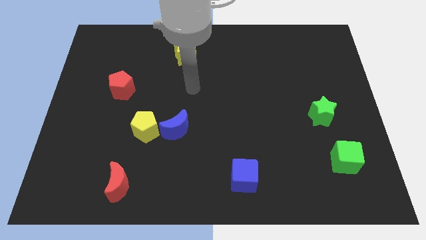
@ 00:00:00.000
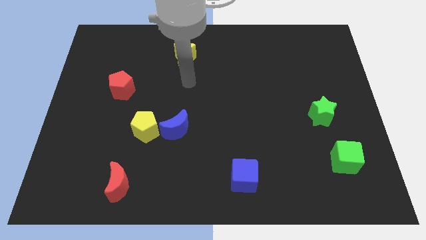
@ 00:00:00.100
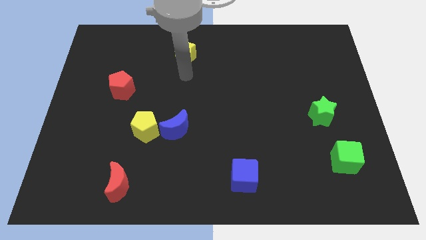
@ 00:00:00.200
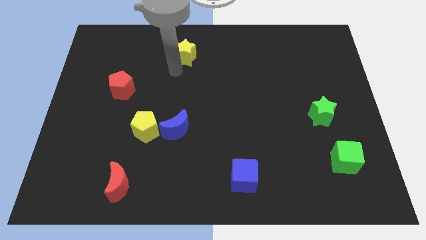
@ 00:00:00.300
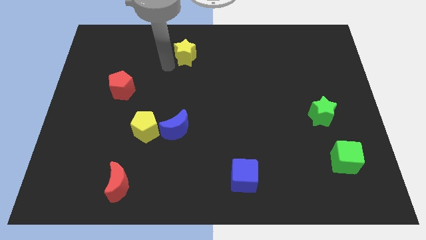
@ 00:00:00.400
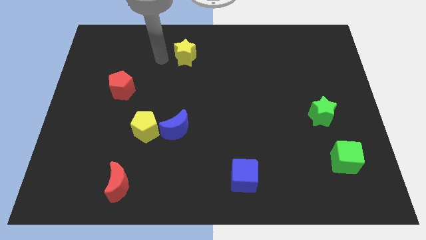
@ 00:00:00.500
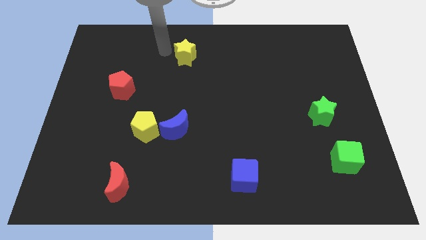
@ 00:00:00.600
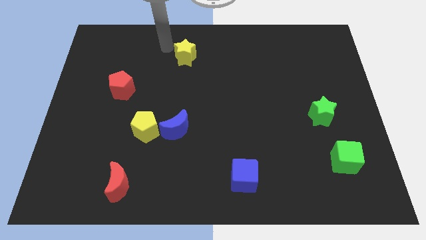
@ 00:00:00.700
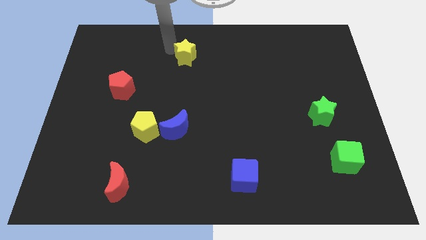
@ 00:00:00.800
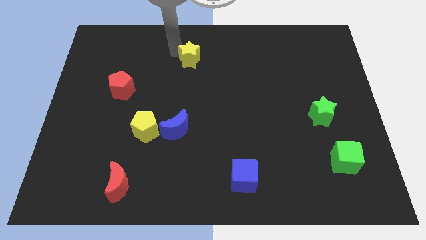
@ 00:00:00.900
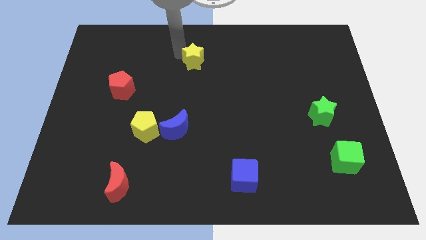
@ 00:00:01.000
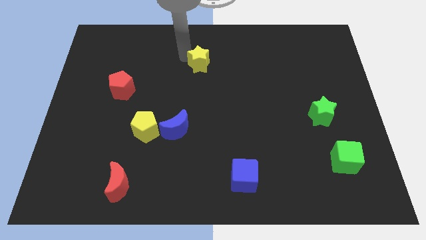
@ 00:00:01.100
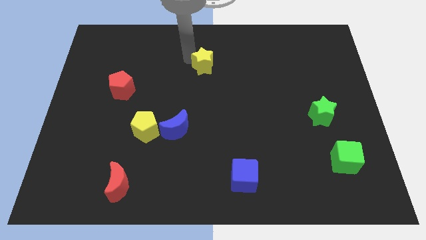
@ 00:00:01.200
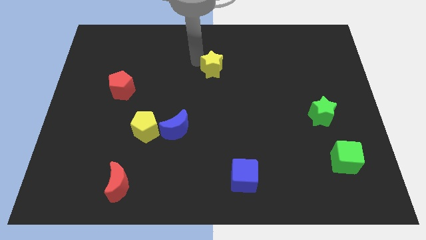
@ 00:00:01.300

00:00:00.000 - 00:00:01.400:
push the yellow star downwards and to the right diagonally a bit

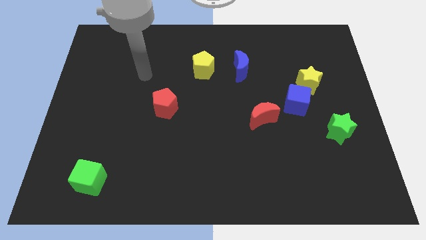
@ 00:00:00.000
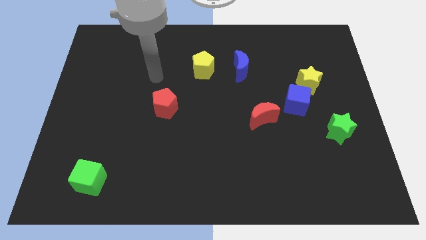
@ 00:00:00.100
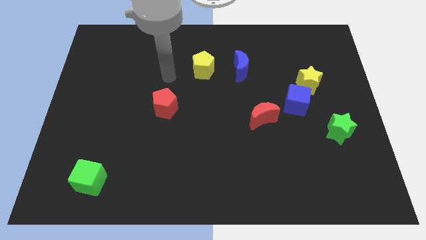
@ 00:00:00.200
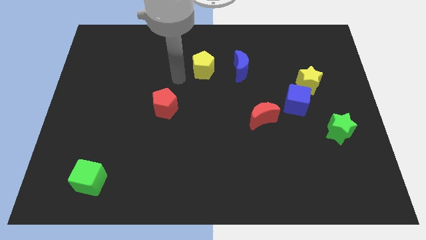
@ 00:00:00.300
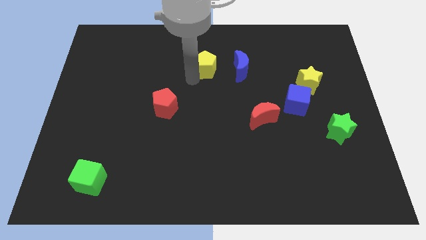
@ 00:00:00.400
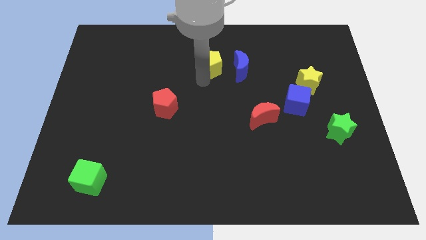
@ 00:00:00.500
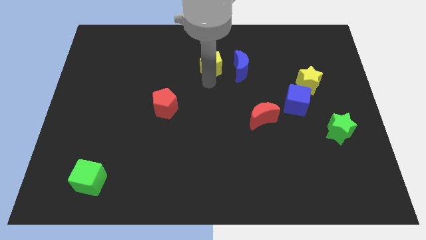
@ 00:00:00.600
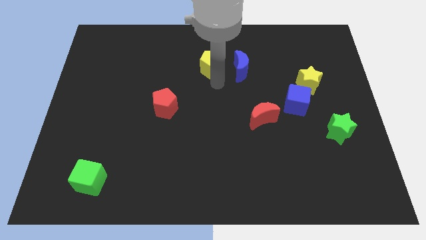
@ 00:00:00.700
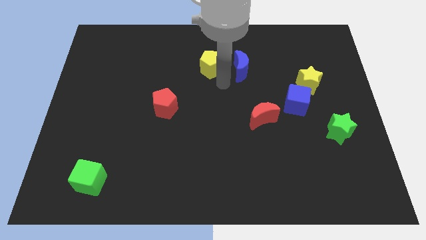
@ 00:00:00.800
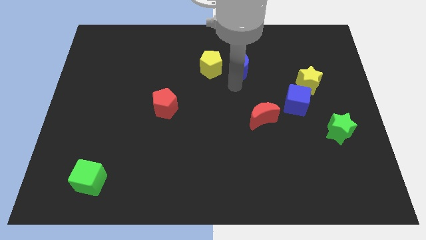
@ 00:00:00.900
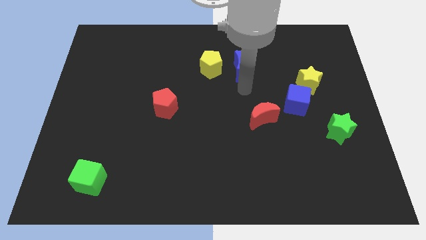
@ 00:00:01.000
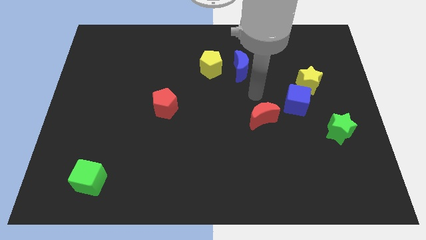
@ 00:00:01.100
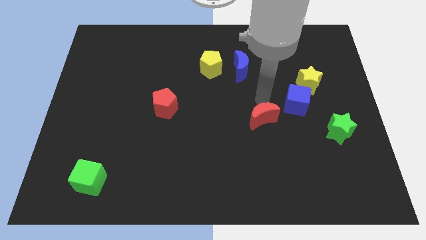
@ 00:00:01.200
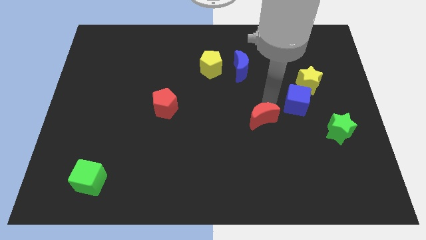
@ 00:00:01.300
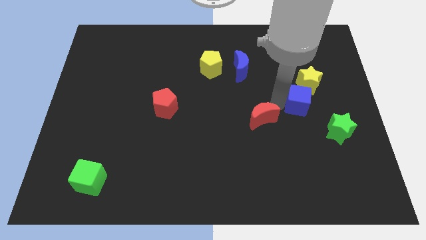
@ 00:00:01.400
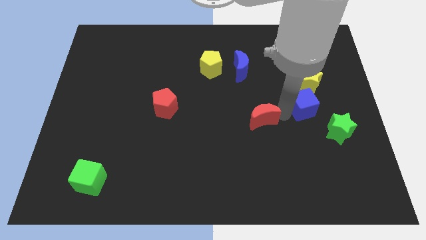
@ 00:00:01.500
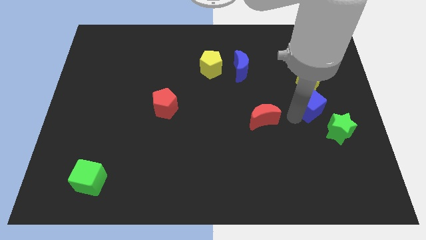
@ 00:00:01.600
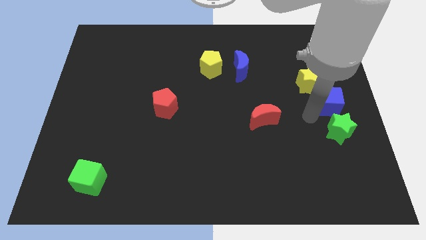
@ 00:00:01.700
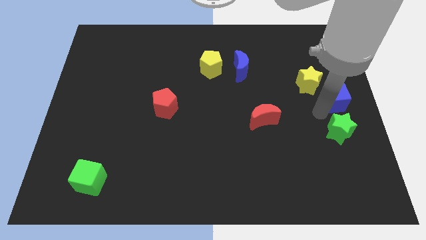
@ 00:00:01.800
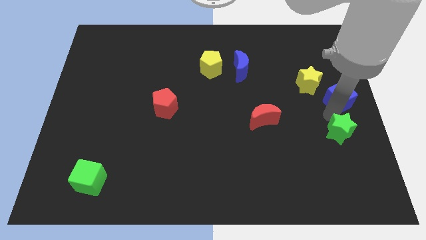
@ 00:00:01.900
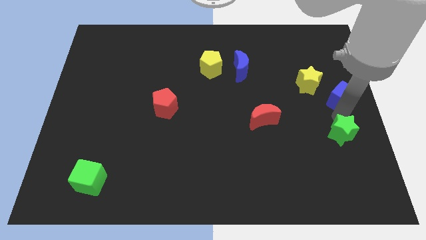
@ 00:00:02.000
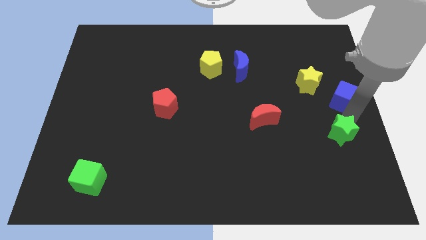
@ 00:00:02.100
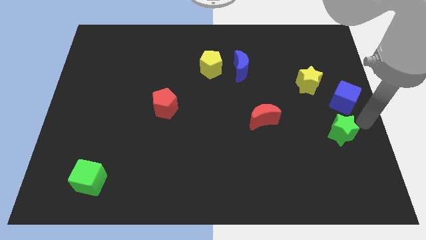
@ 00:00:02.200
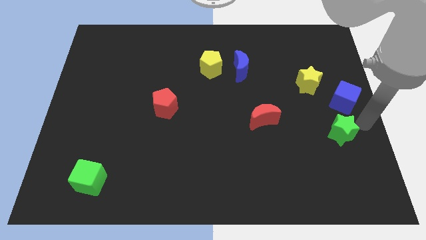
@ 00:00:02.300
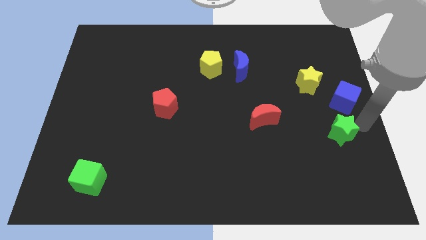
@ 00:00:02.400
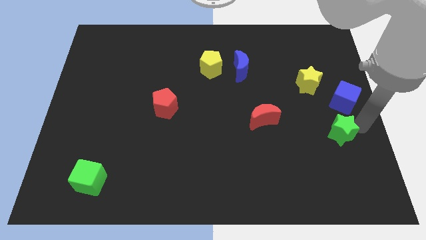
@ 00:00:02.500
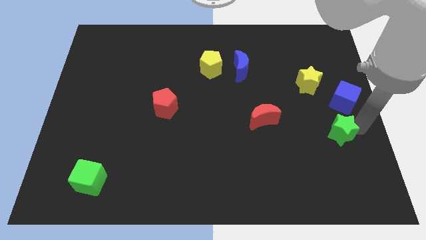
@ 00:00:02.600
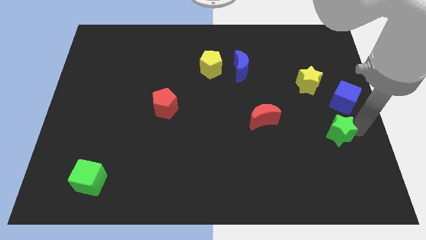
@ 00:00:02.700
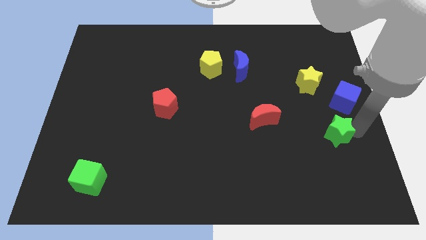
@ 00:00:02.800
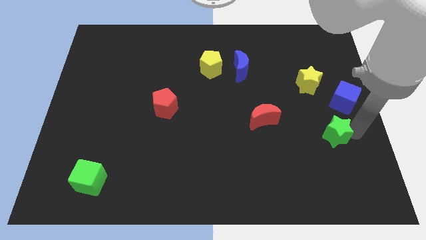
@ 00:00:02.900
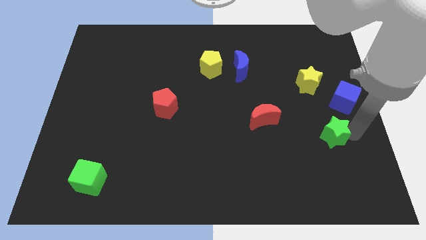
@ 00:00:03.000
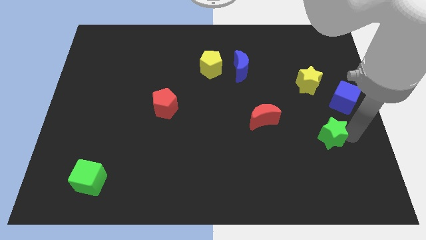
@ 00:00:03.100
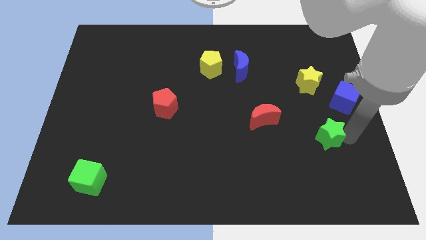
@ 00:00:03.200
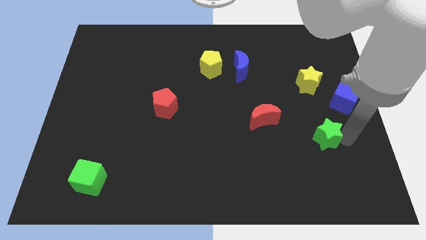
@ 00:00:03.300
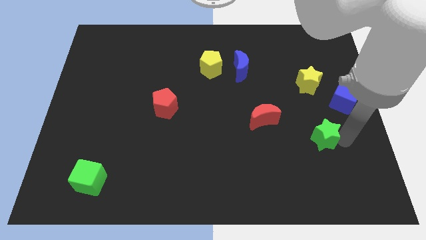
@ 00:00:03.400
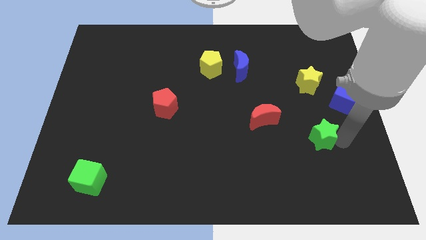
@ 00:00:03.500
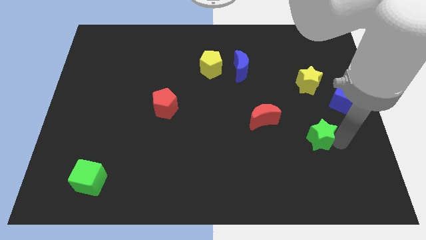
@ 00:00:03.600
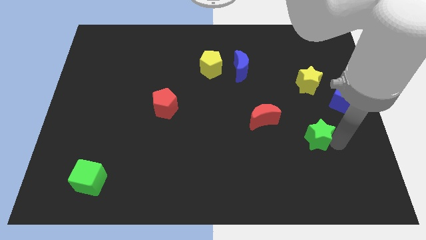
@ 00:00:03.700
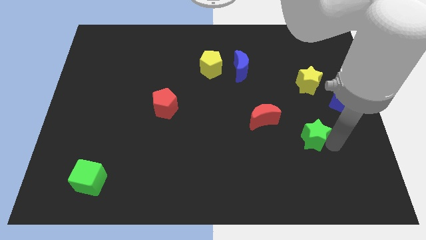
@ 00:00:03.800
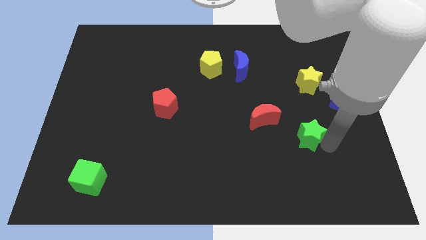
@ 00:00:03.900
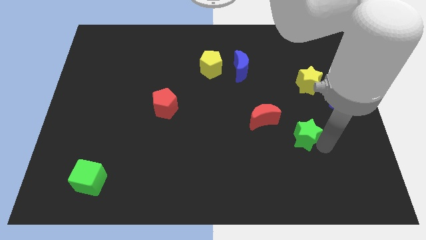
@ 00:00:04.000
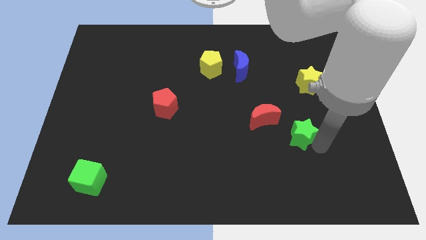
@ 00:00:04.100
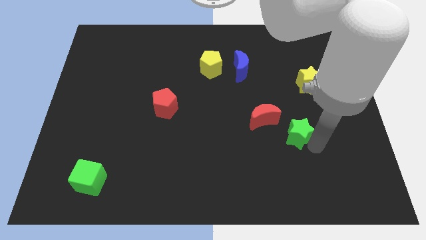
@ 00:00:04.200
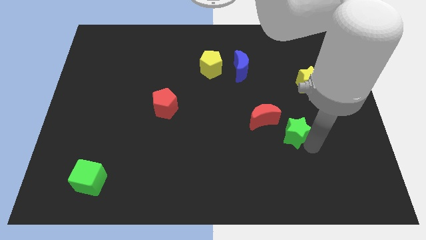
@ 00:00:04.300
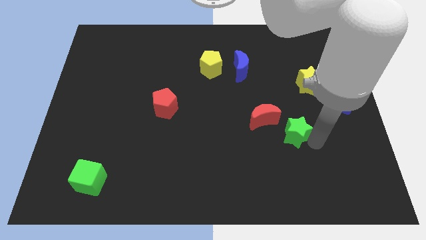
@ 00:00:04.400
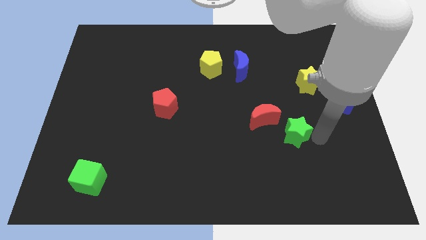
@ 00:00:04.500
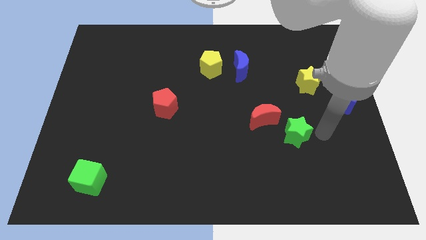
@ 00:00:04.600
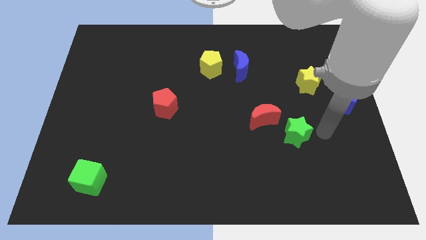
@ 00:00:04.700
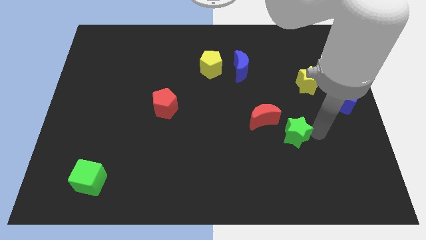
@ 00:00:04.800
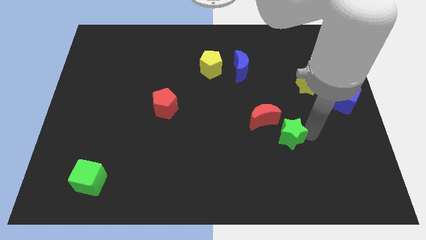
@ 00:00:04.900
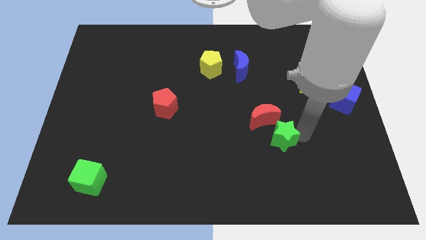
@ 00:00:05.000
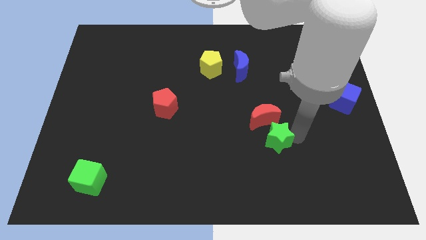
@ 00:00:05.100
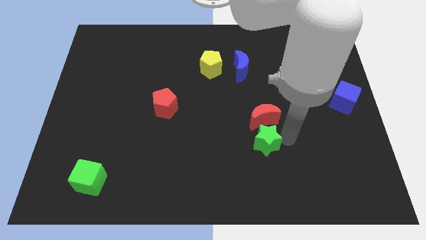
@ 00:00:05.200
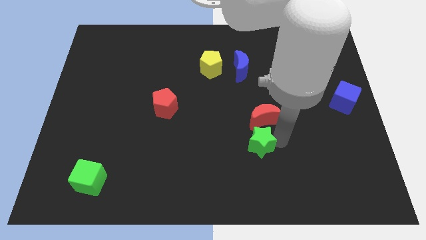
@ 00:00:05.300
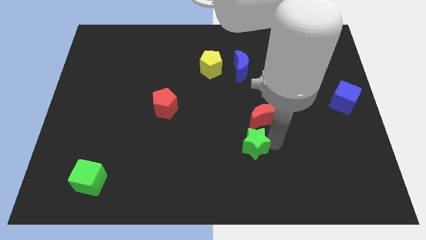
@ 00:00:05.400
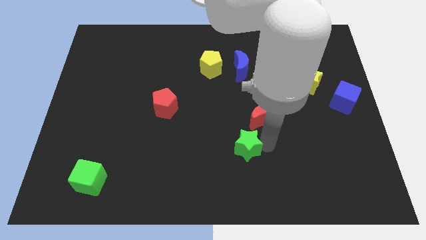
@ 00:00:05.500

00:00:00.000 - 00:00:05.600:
push the green star to the left

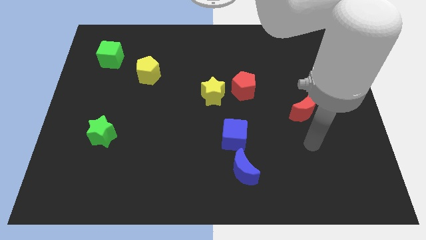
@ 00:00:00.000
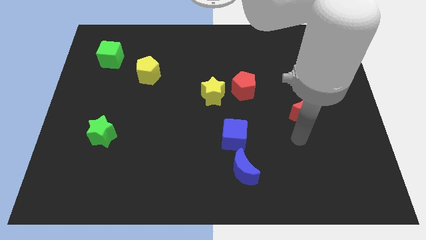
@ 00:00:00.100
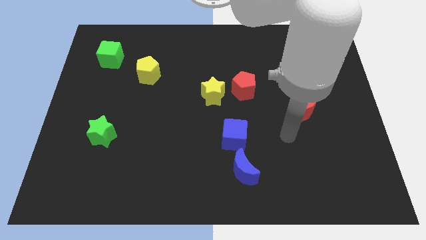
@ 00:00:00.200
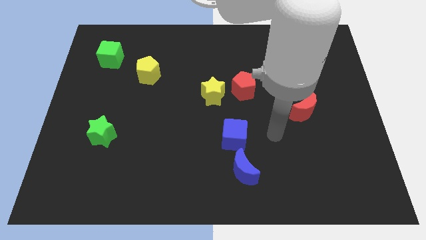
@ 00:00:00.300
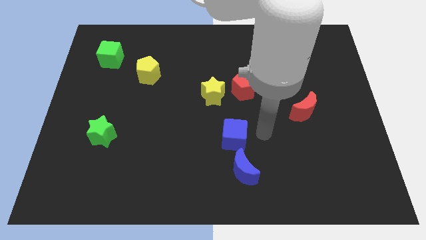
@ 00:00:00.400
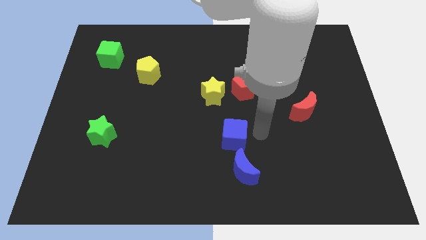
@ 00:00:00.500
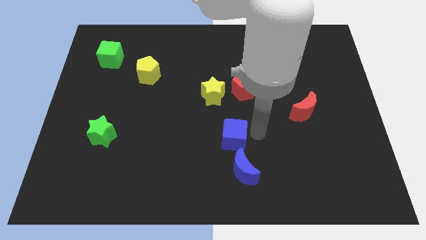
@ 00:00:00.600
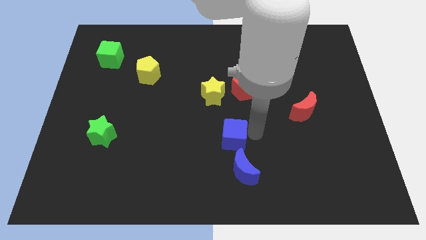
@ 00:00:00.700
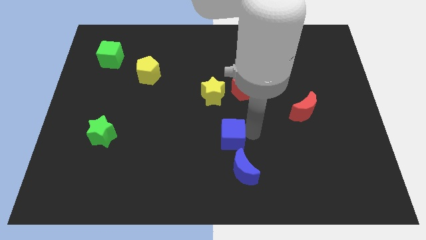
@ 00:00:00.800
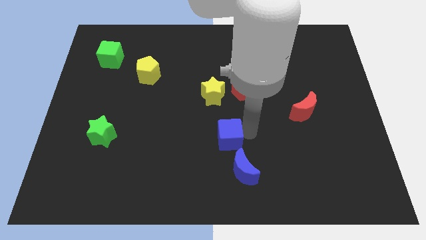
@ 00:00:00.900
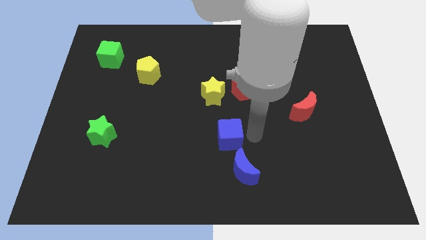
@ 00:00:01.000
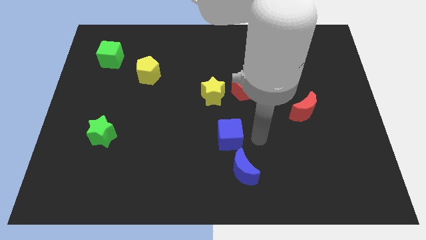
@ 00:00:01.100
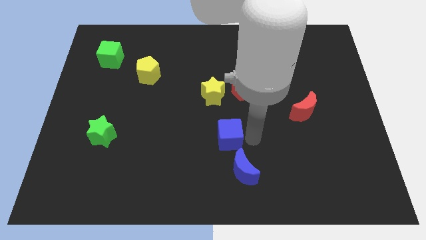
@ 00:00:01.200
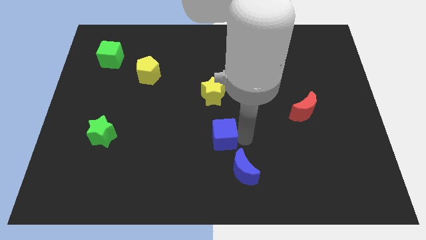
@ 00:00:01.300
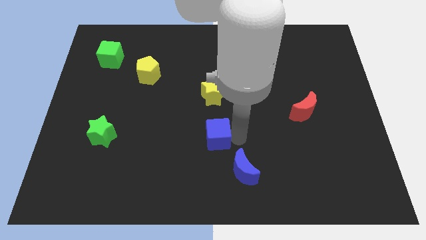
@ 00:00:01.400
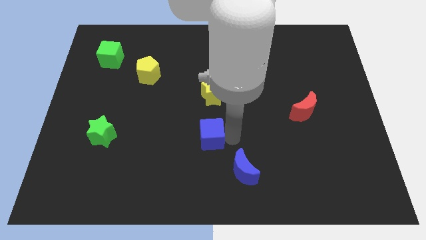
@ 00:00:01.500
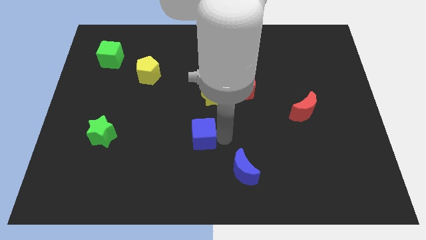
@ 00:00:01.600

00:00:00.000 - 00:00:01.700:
push the blue cube slightly to the left
